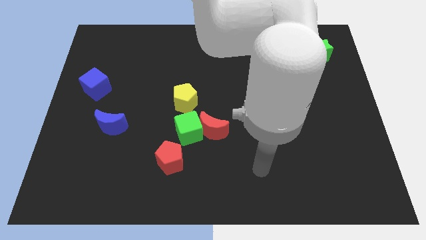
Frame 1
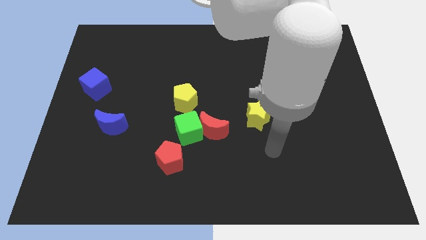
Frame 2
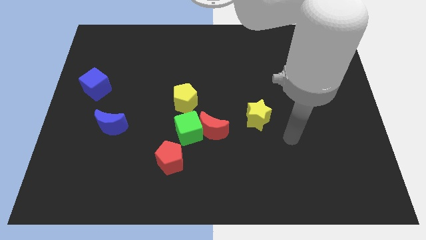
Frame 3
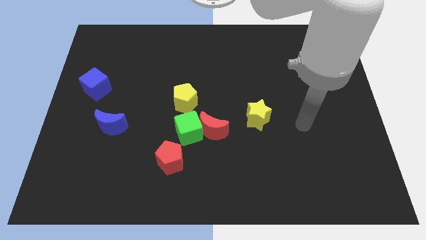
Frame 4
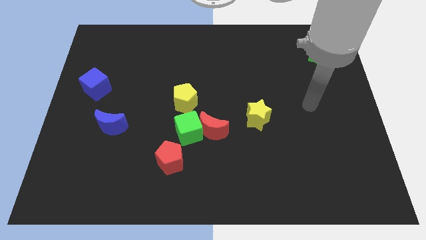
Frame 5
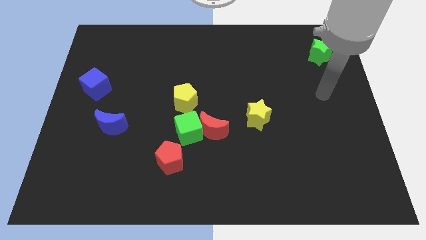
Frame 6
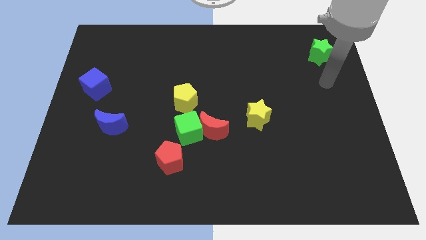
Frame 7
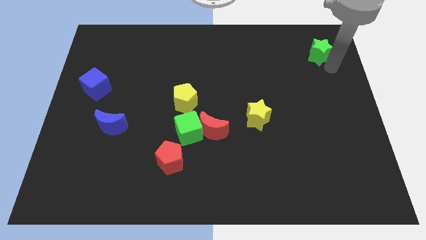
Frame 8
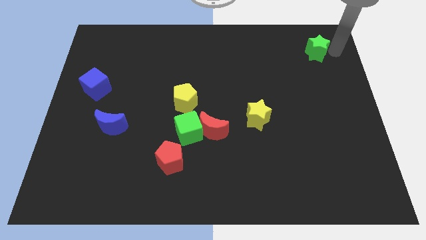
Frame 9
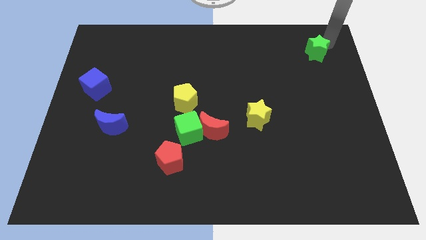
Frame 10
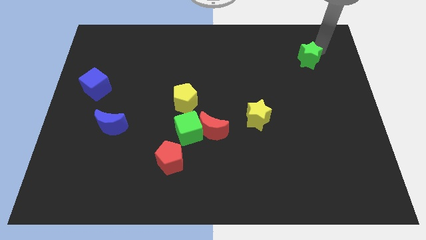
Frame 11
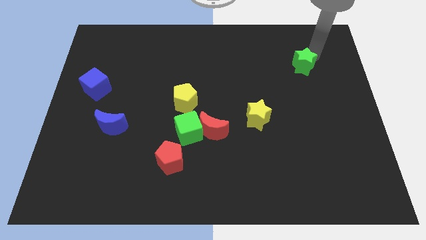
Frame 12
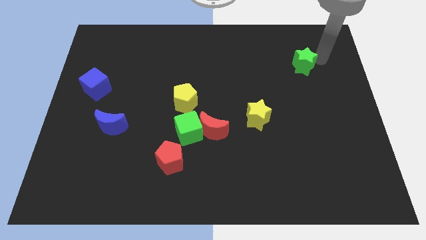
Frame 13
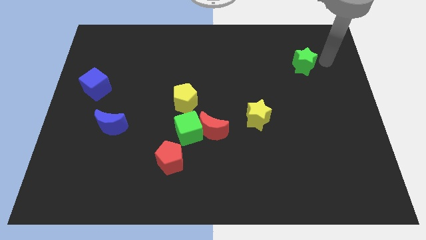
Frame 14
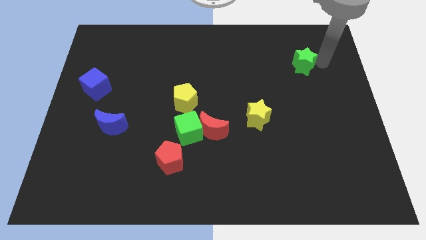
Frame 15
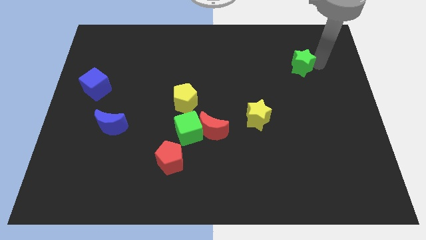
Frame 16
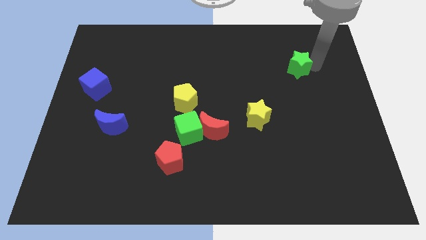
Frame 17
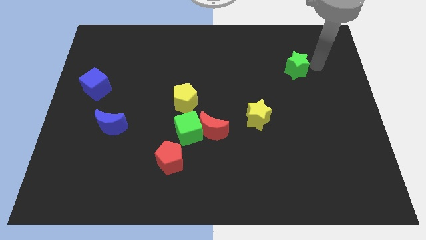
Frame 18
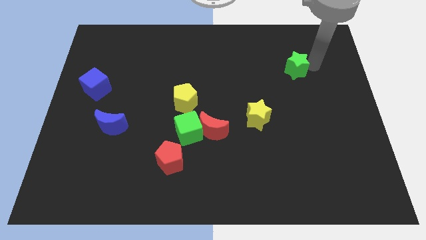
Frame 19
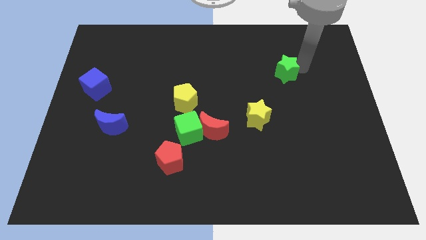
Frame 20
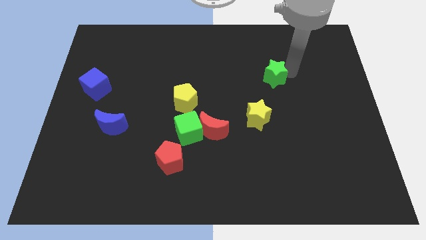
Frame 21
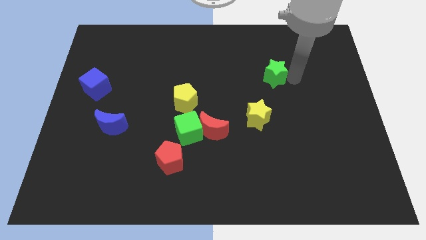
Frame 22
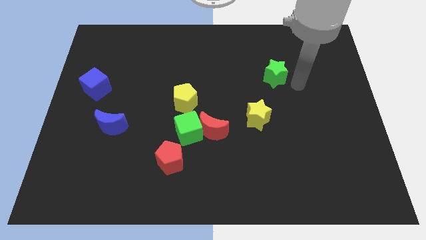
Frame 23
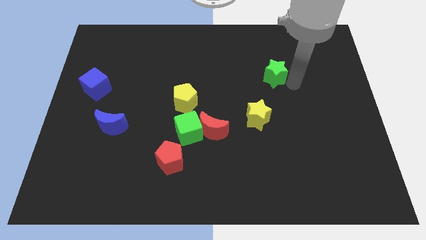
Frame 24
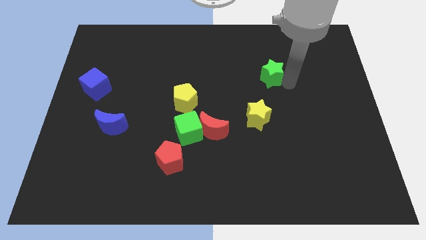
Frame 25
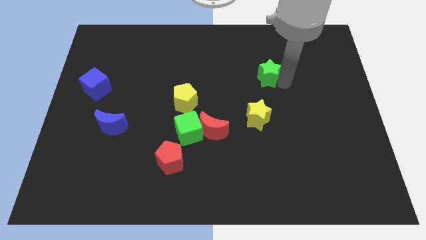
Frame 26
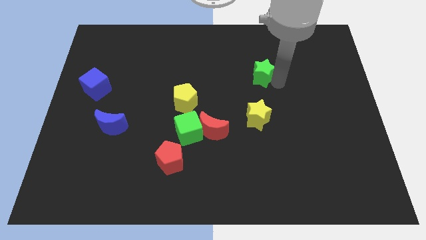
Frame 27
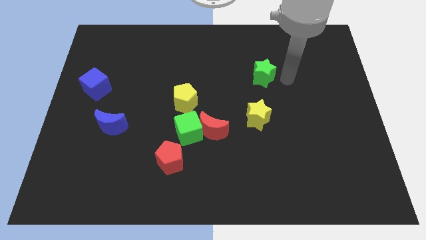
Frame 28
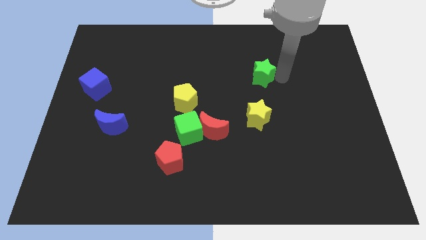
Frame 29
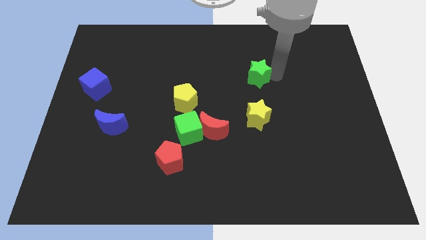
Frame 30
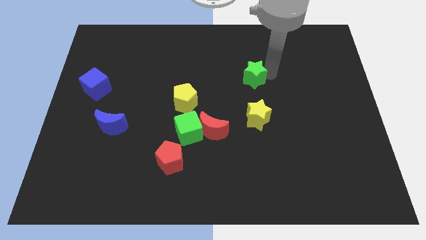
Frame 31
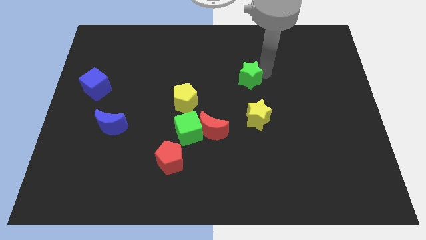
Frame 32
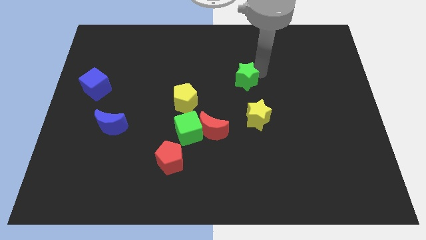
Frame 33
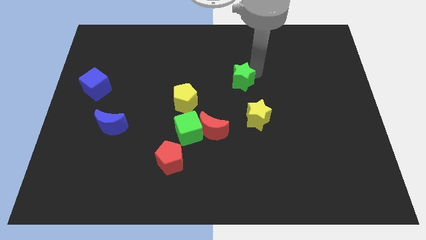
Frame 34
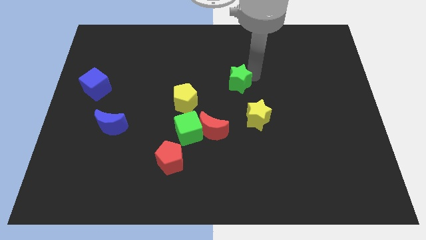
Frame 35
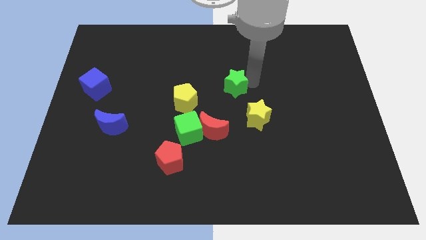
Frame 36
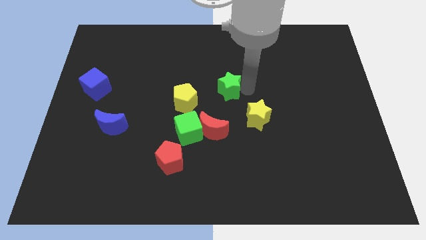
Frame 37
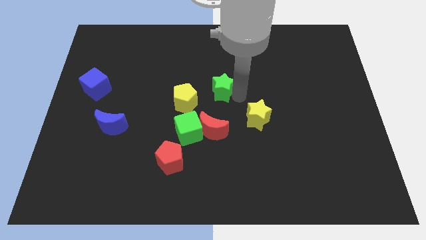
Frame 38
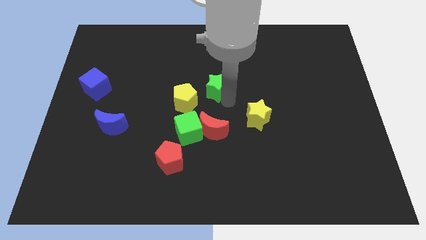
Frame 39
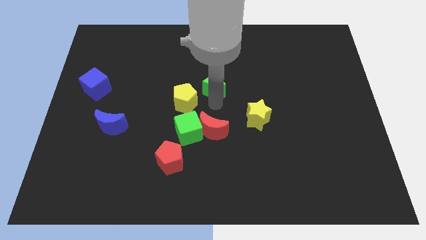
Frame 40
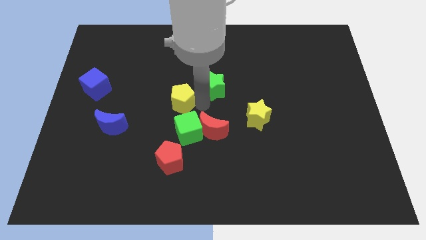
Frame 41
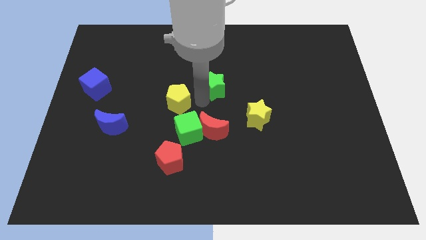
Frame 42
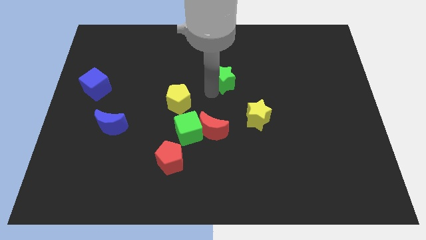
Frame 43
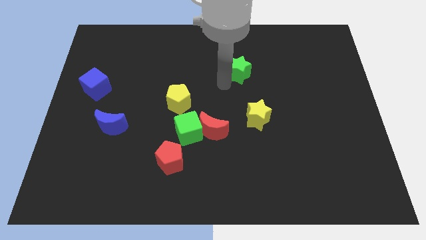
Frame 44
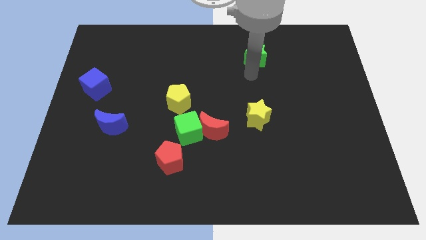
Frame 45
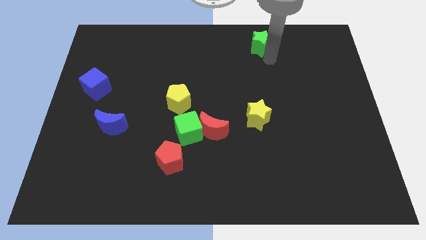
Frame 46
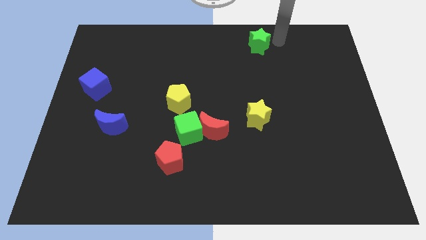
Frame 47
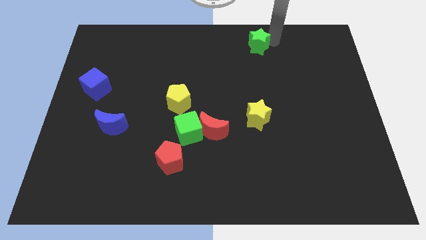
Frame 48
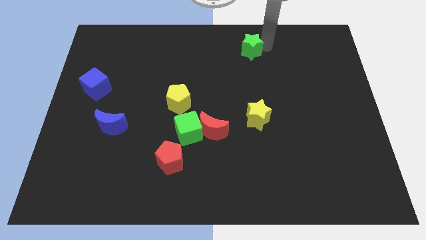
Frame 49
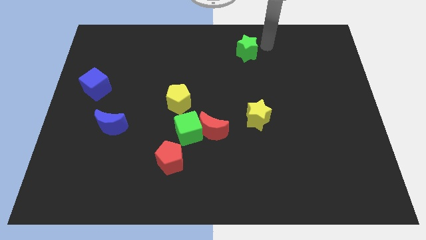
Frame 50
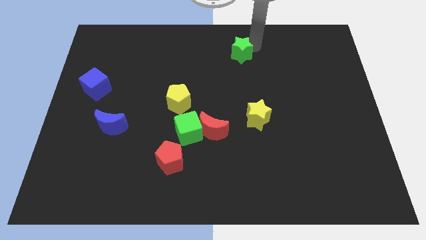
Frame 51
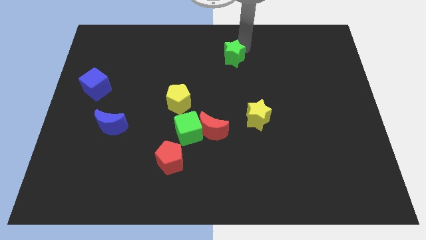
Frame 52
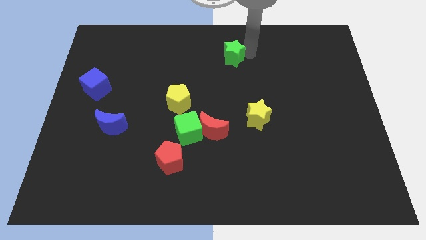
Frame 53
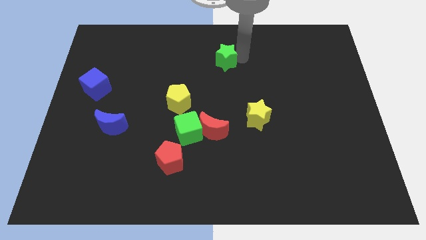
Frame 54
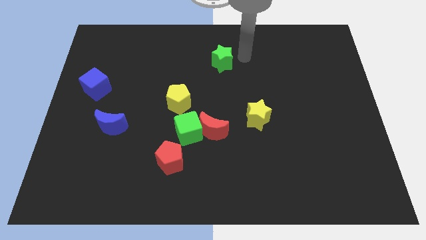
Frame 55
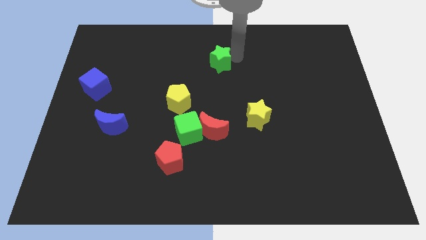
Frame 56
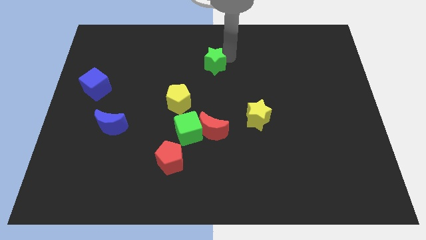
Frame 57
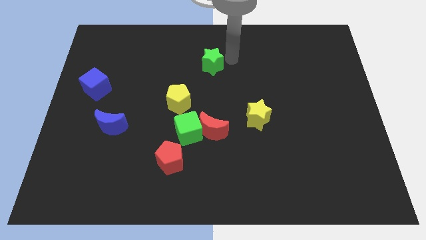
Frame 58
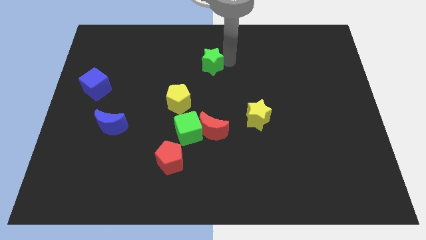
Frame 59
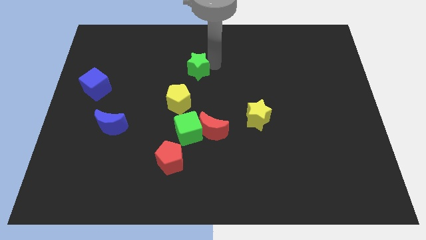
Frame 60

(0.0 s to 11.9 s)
move the green star above the yellow pentagon

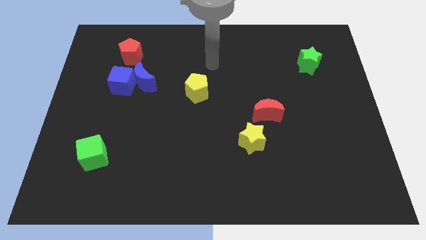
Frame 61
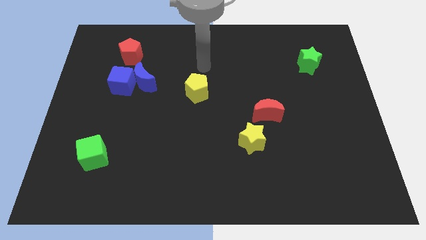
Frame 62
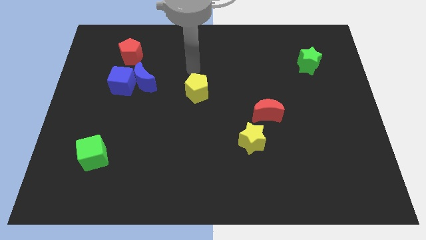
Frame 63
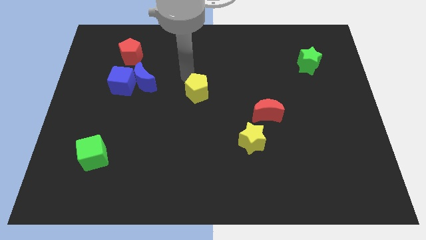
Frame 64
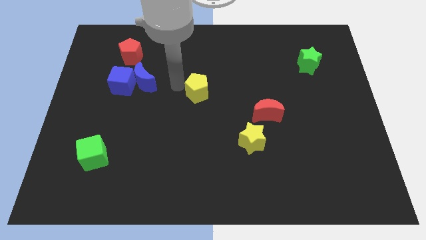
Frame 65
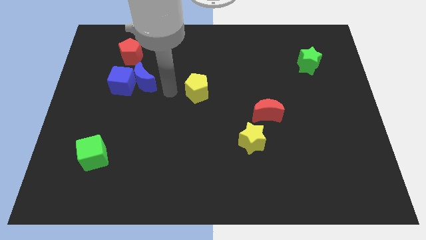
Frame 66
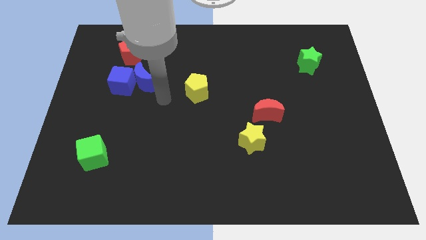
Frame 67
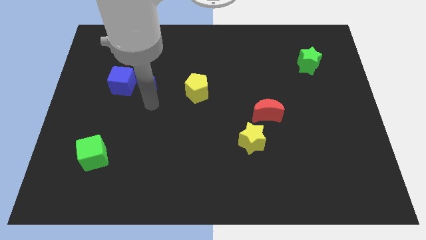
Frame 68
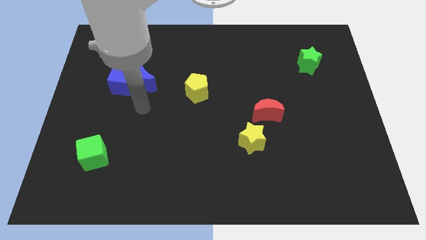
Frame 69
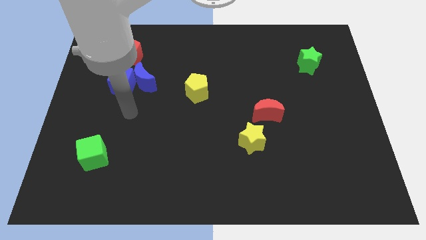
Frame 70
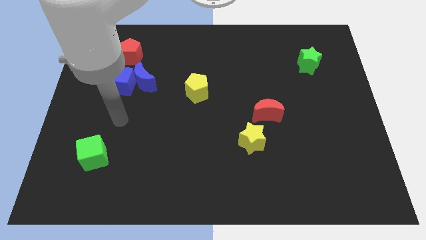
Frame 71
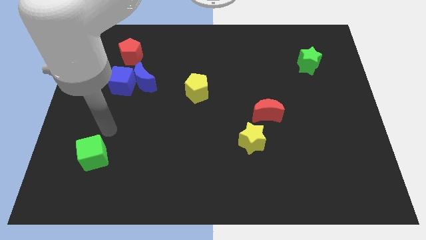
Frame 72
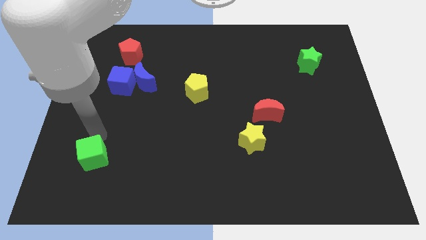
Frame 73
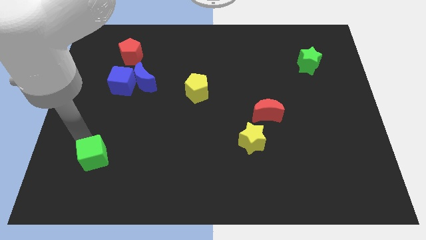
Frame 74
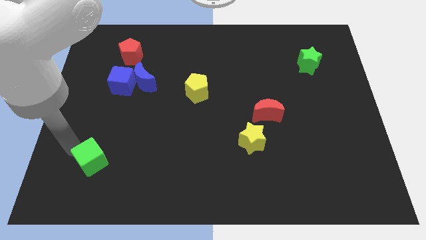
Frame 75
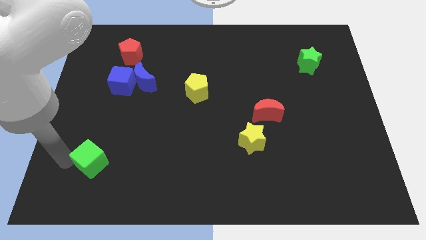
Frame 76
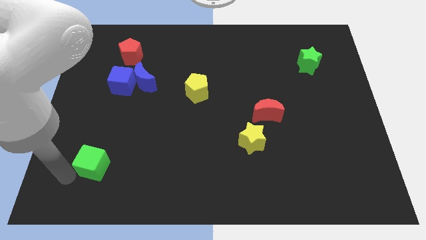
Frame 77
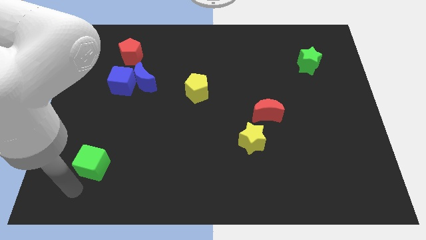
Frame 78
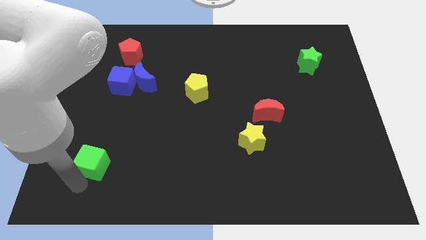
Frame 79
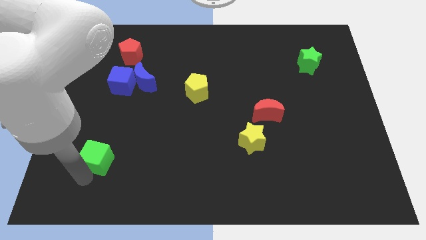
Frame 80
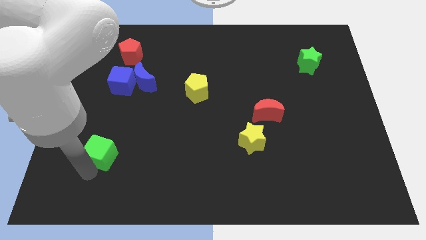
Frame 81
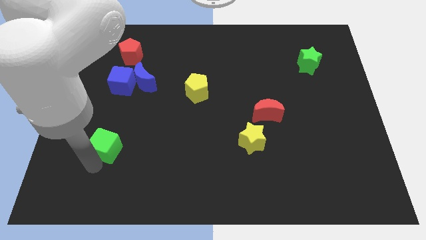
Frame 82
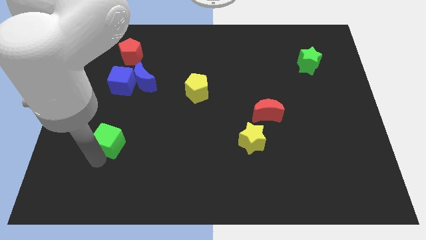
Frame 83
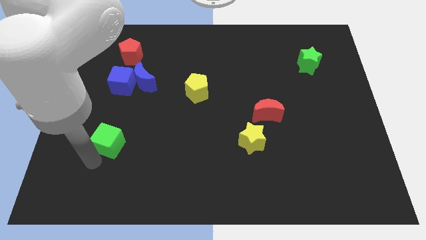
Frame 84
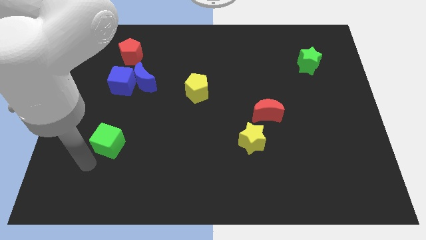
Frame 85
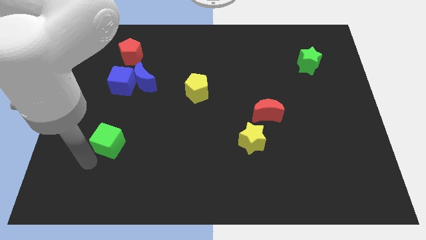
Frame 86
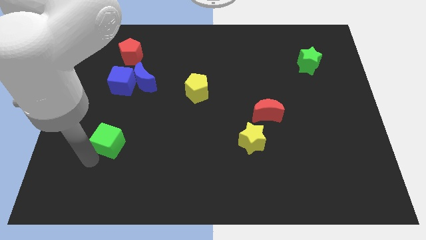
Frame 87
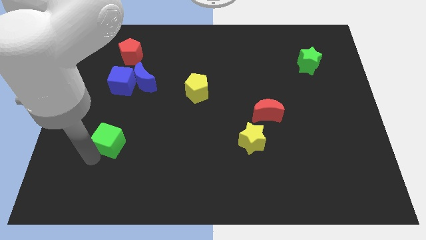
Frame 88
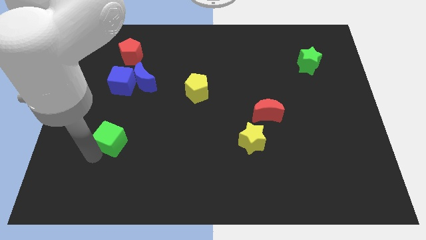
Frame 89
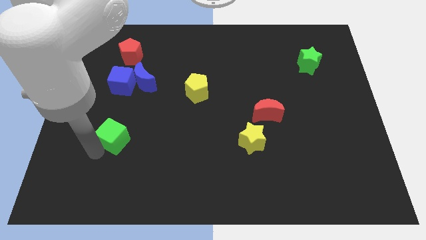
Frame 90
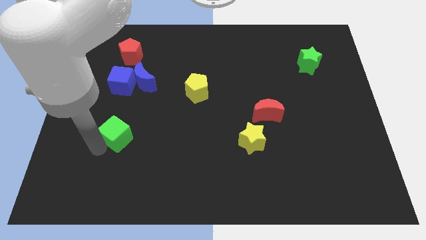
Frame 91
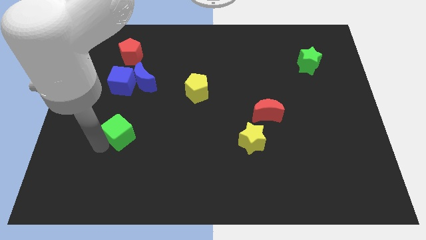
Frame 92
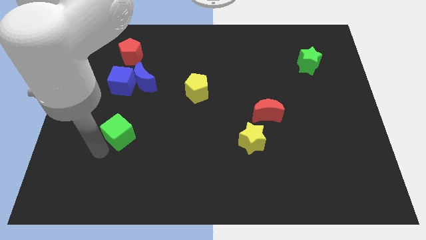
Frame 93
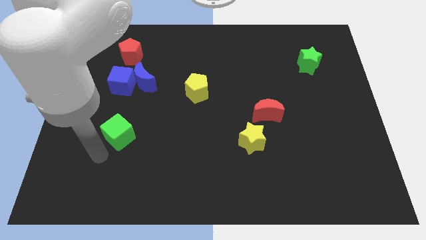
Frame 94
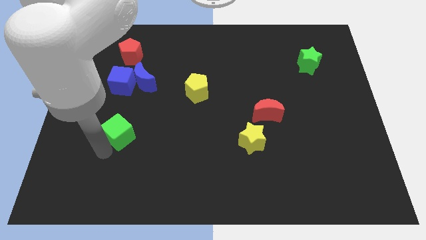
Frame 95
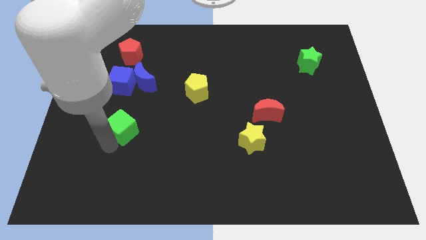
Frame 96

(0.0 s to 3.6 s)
put the green cube below the blue moon
